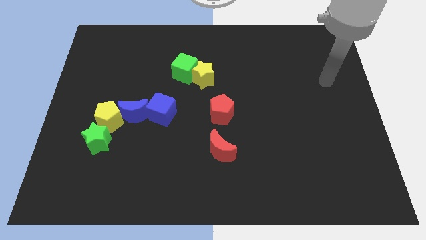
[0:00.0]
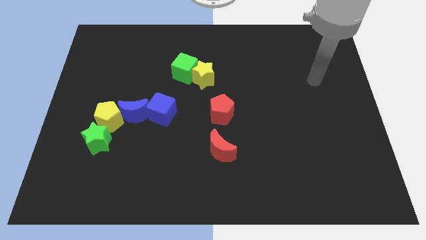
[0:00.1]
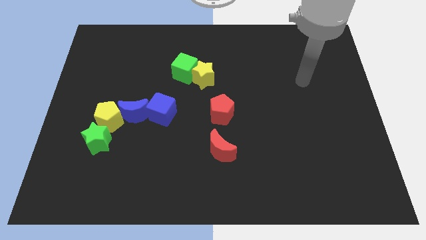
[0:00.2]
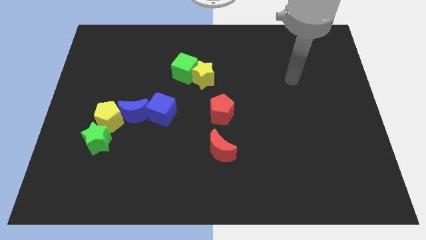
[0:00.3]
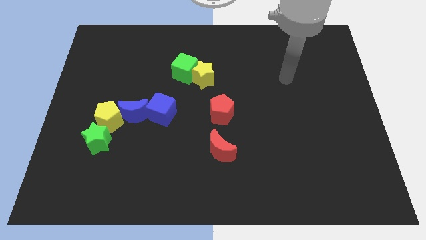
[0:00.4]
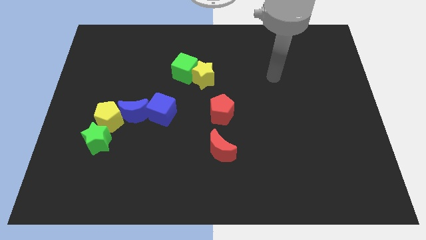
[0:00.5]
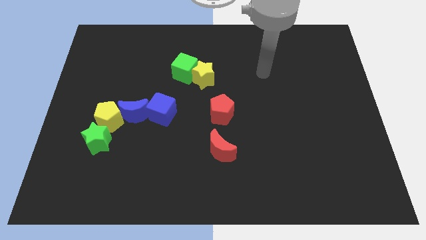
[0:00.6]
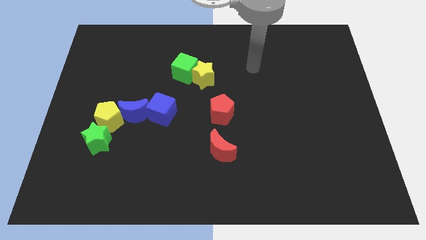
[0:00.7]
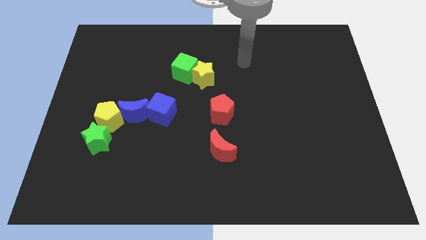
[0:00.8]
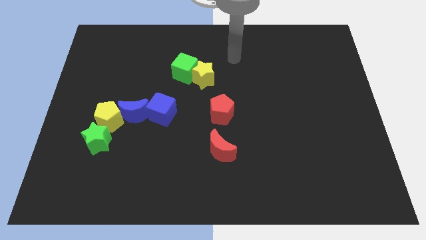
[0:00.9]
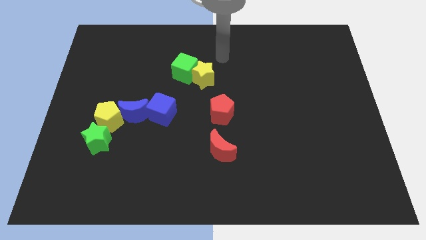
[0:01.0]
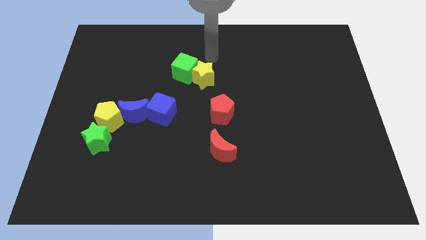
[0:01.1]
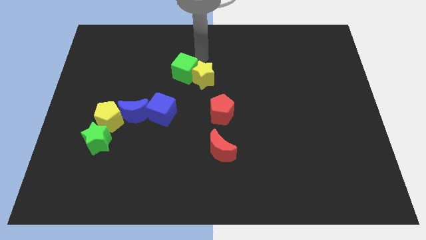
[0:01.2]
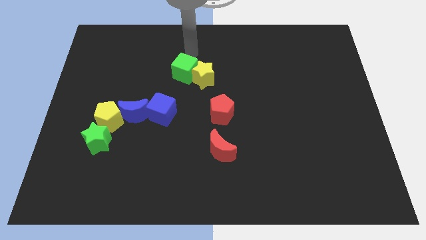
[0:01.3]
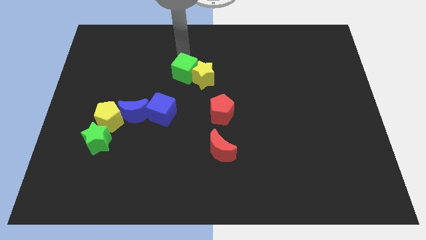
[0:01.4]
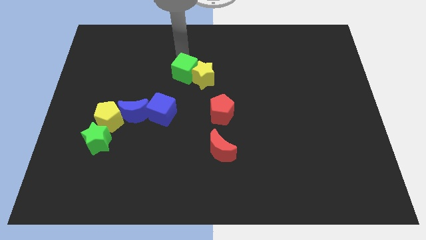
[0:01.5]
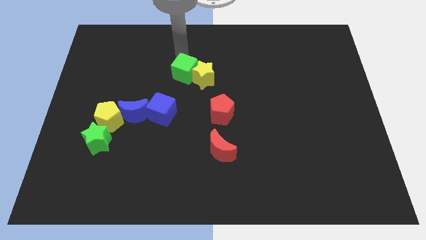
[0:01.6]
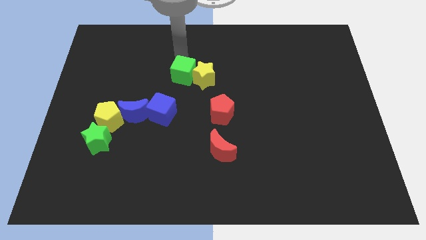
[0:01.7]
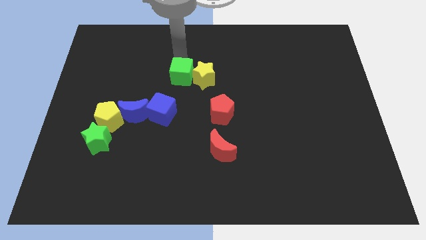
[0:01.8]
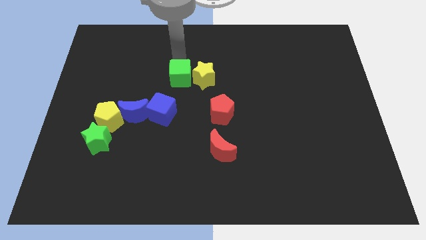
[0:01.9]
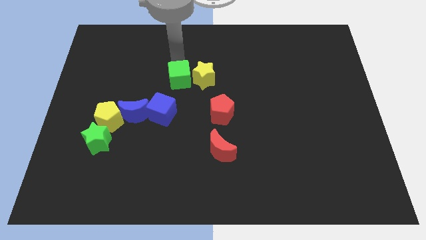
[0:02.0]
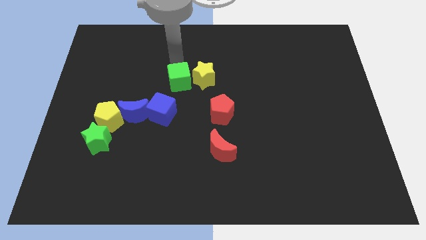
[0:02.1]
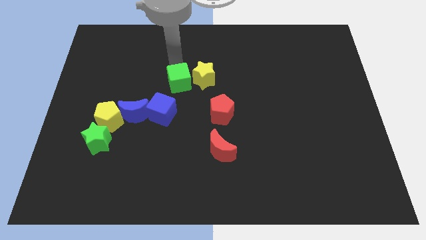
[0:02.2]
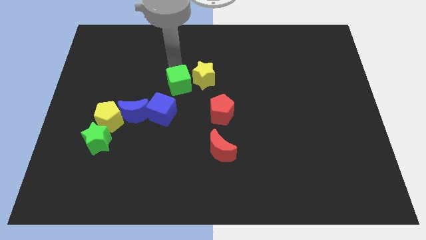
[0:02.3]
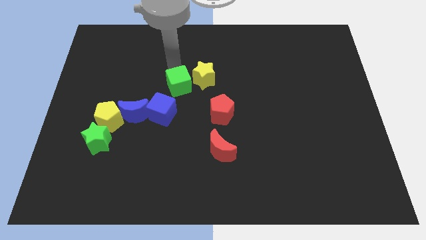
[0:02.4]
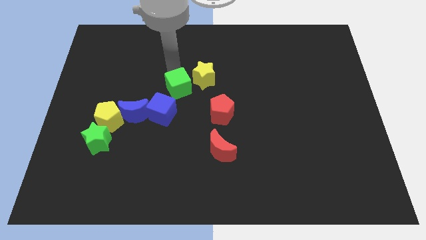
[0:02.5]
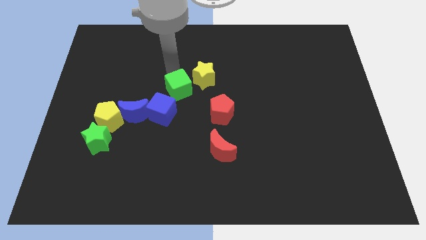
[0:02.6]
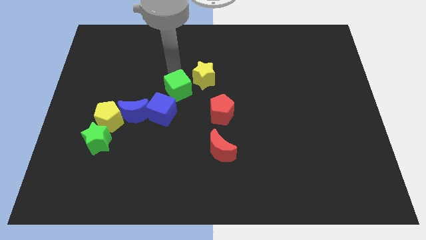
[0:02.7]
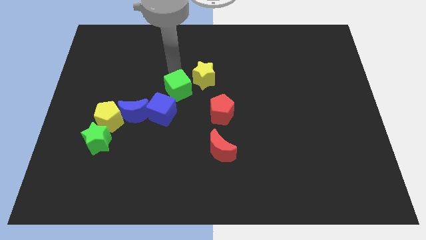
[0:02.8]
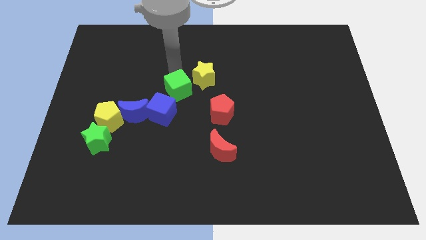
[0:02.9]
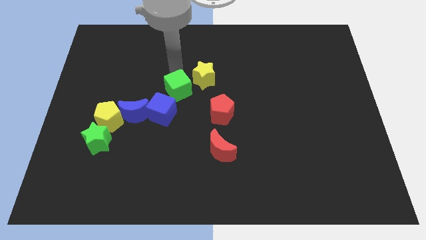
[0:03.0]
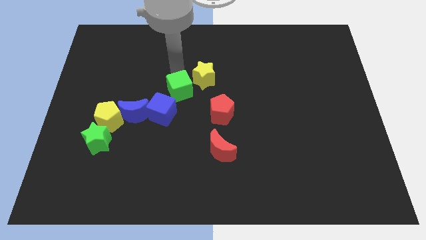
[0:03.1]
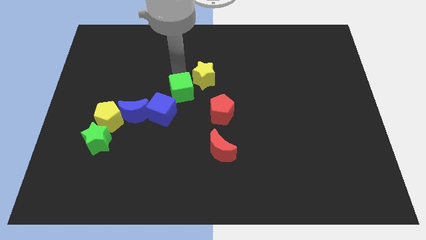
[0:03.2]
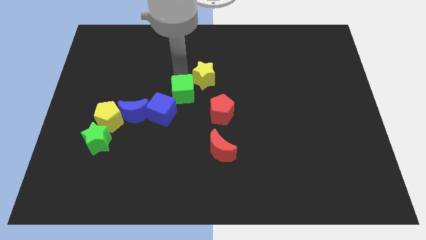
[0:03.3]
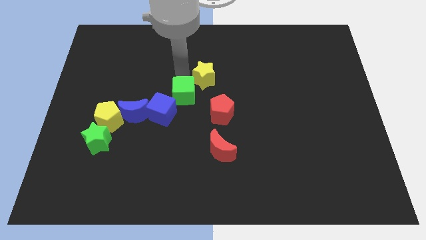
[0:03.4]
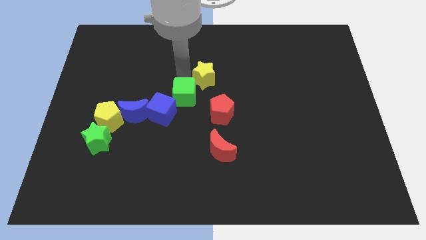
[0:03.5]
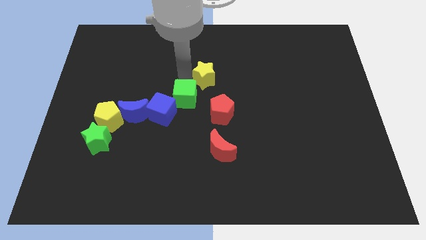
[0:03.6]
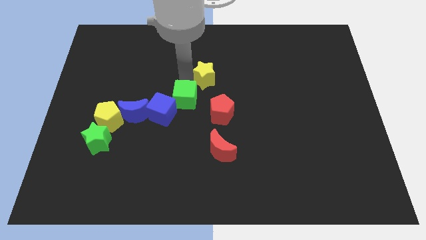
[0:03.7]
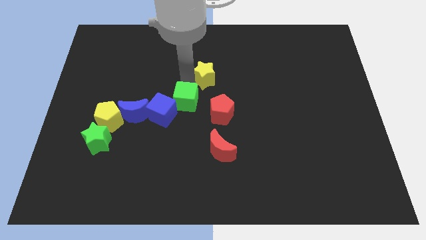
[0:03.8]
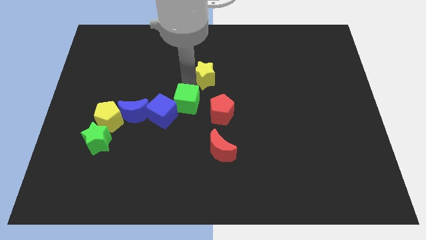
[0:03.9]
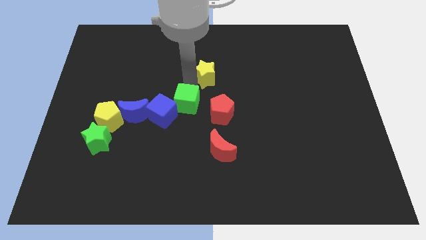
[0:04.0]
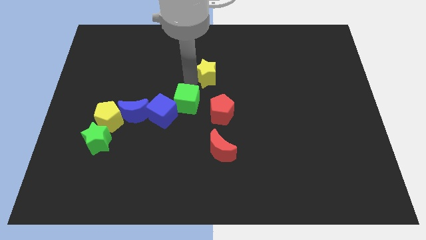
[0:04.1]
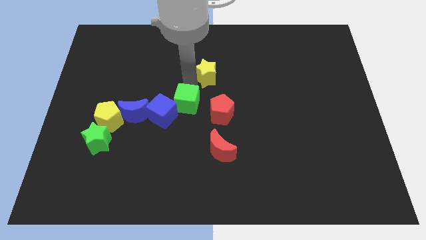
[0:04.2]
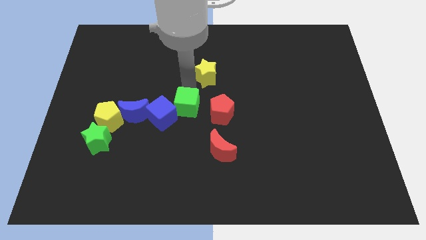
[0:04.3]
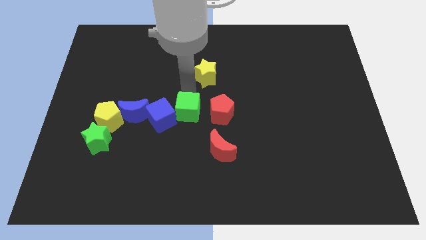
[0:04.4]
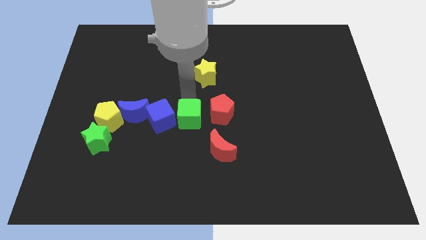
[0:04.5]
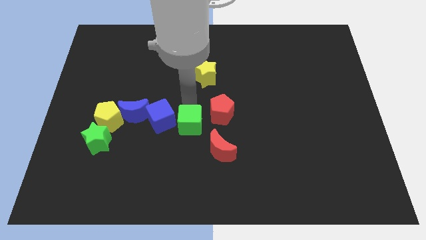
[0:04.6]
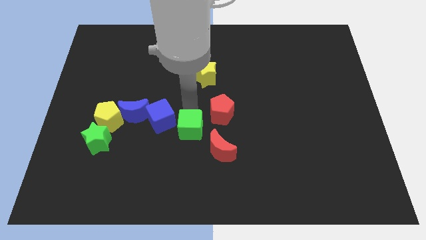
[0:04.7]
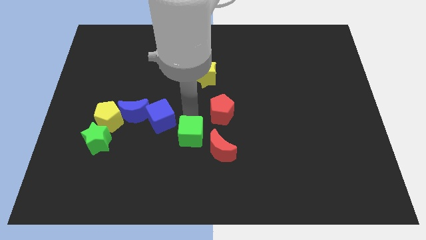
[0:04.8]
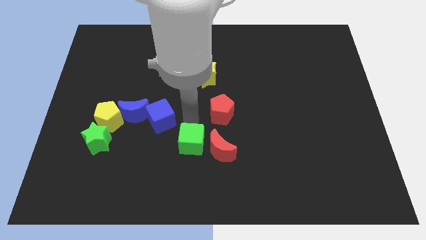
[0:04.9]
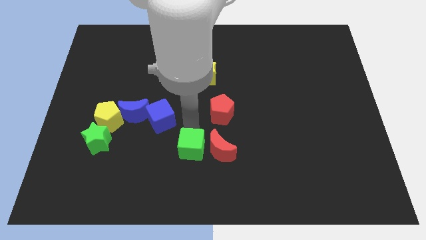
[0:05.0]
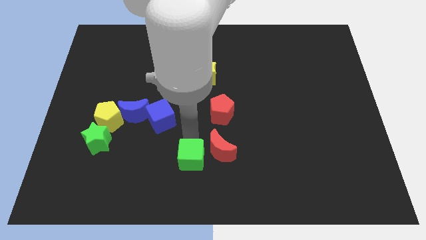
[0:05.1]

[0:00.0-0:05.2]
slide the green cube to the bottom

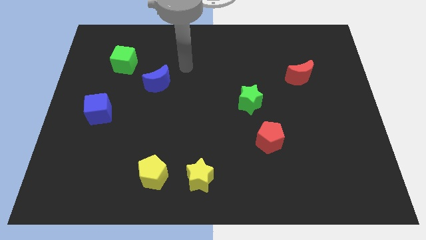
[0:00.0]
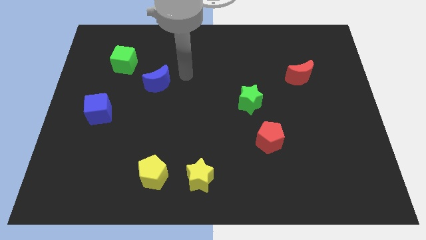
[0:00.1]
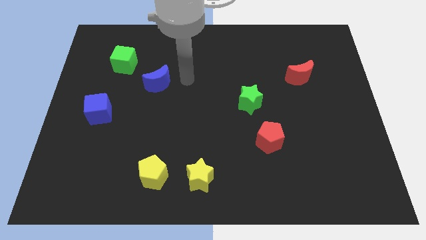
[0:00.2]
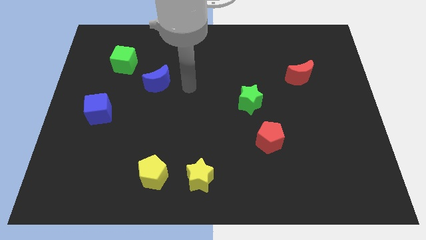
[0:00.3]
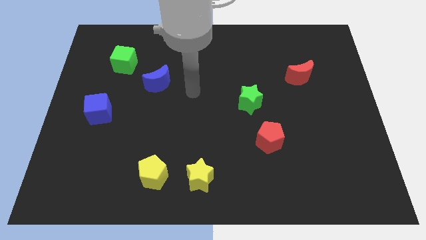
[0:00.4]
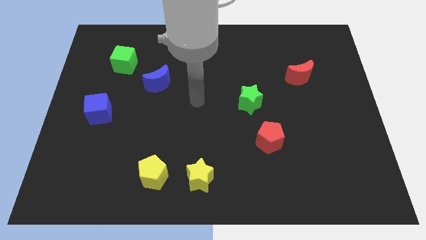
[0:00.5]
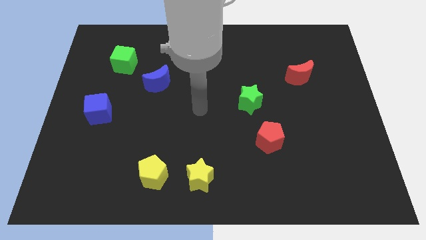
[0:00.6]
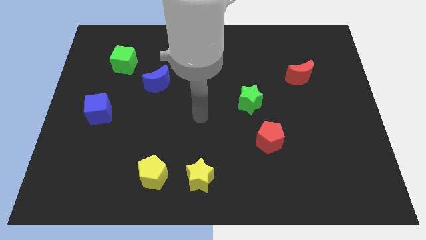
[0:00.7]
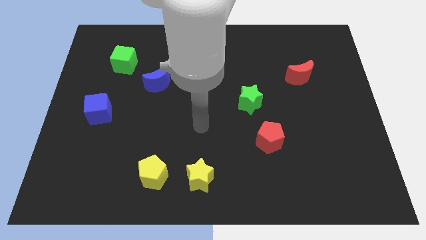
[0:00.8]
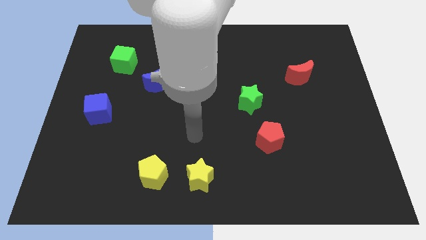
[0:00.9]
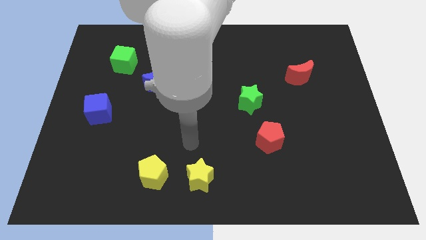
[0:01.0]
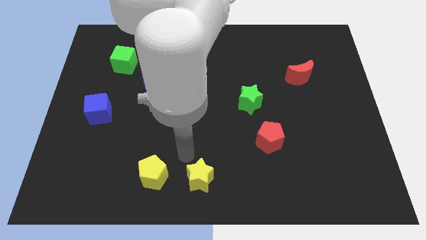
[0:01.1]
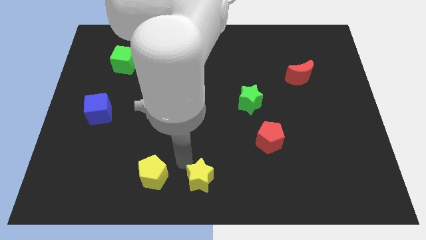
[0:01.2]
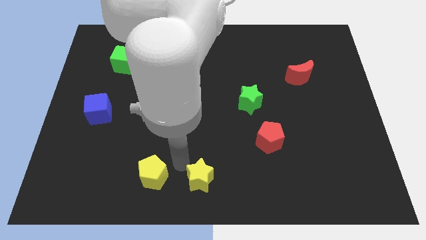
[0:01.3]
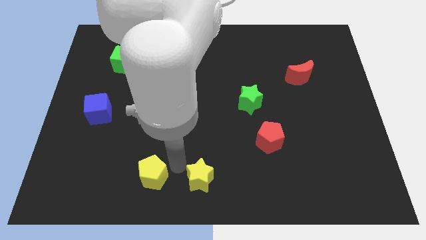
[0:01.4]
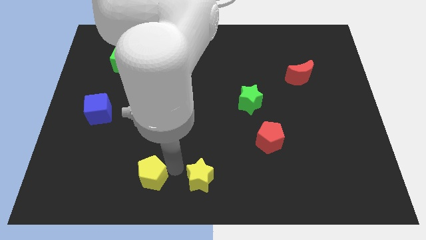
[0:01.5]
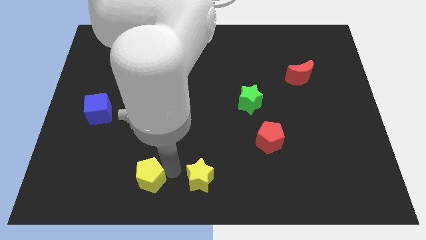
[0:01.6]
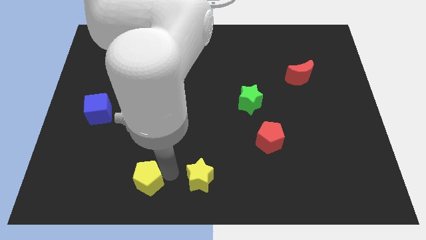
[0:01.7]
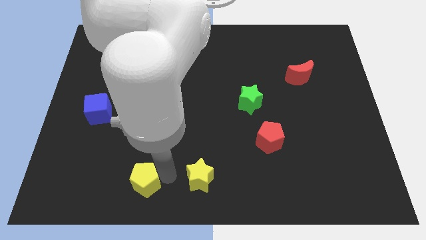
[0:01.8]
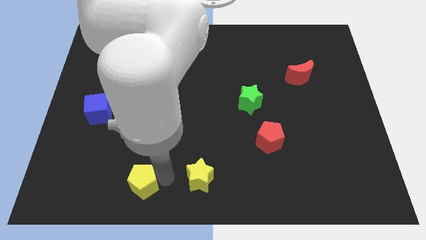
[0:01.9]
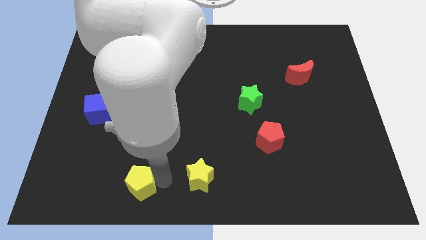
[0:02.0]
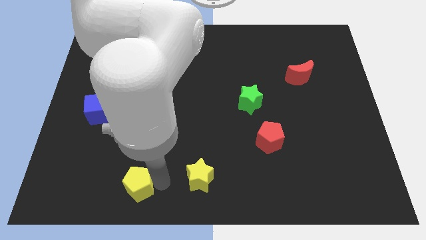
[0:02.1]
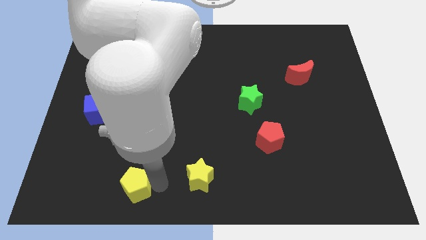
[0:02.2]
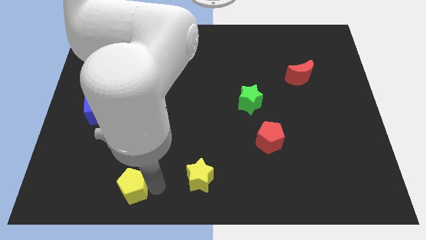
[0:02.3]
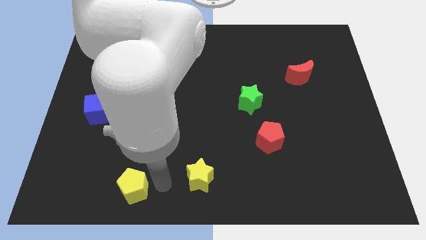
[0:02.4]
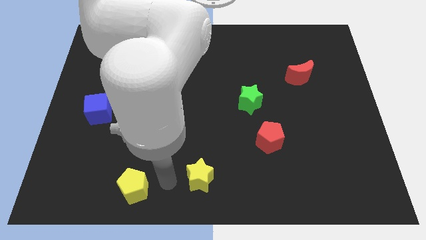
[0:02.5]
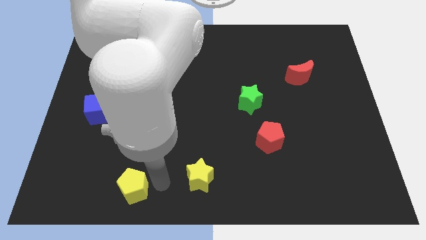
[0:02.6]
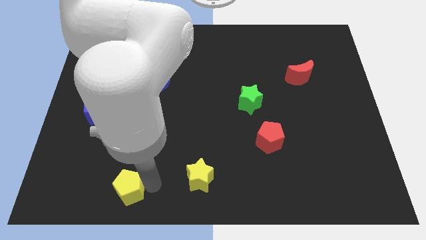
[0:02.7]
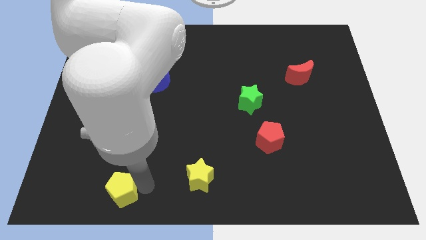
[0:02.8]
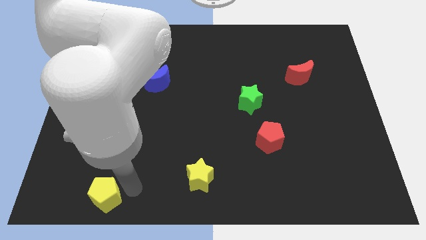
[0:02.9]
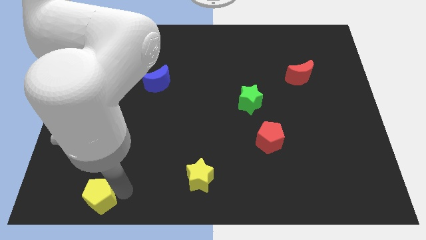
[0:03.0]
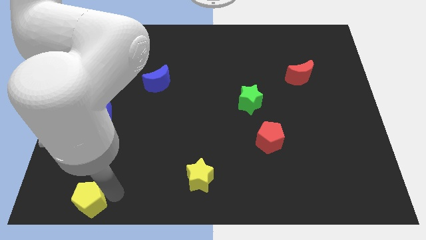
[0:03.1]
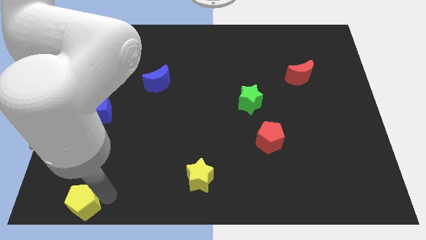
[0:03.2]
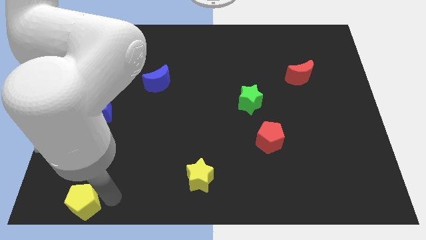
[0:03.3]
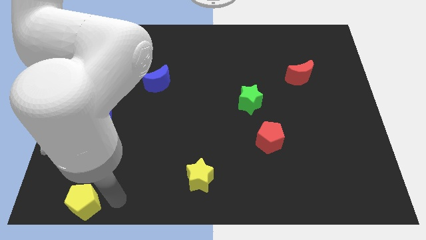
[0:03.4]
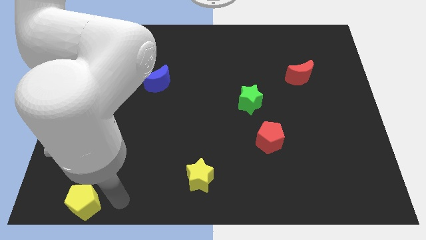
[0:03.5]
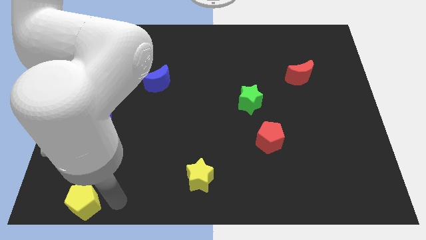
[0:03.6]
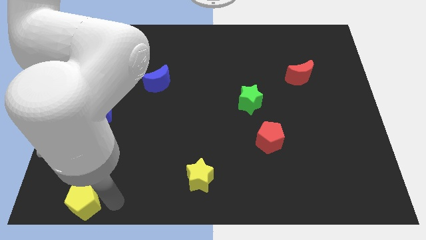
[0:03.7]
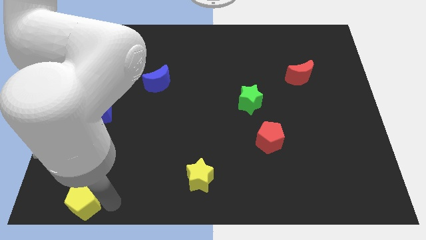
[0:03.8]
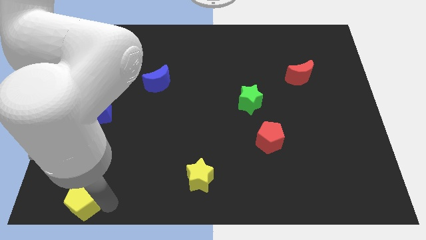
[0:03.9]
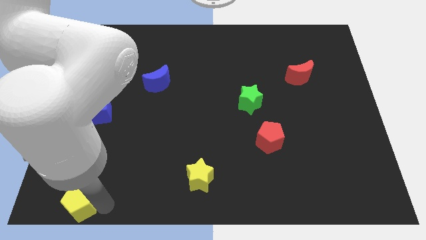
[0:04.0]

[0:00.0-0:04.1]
push the yellow pentagon to the bottom left
